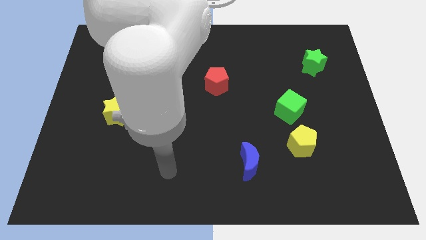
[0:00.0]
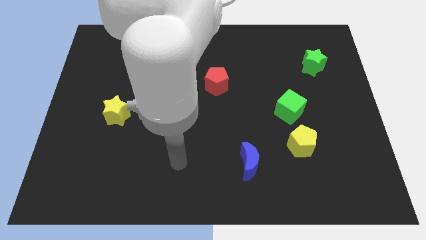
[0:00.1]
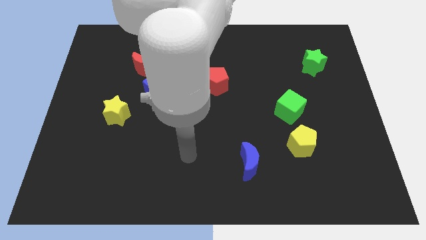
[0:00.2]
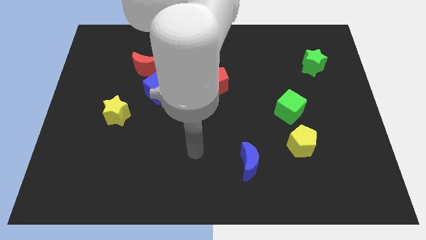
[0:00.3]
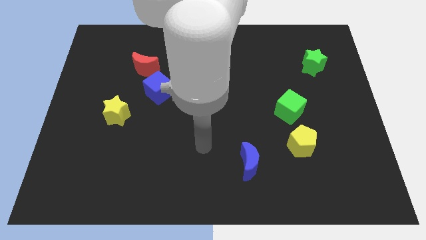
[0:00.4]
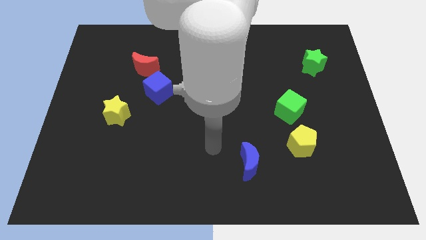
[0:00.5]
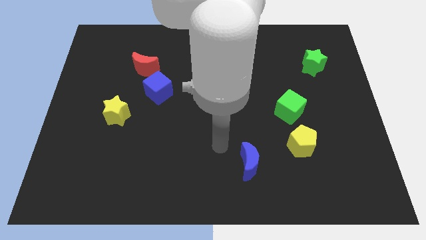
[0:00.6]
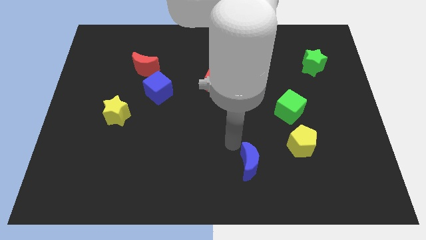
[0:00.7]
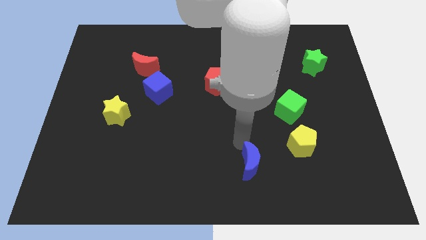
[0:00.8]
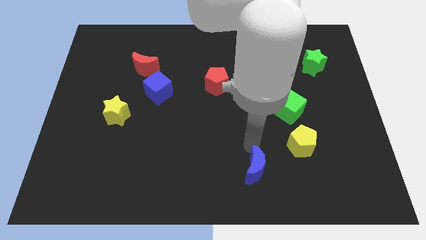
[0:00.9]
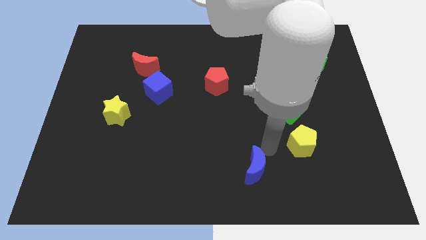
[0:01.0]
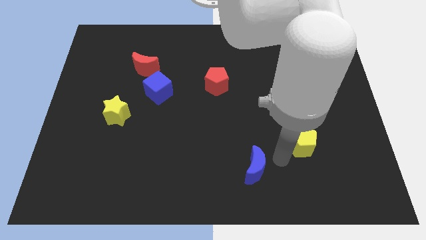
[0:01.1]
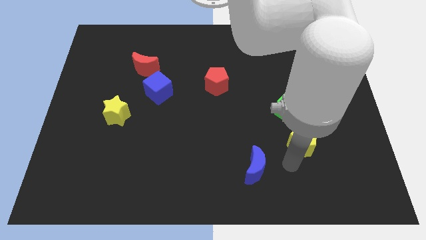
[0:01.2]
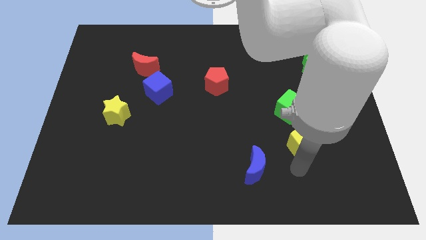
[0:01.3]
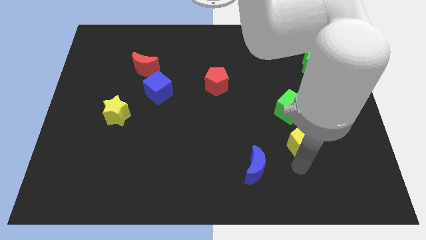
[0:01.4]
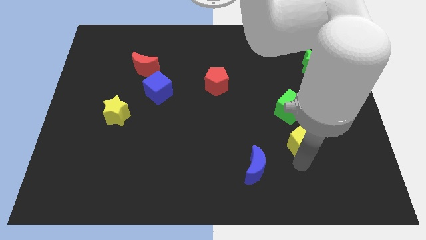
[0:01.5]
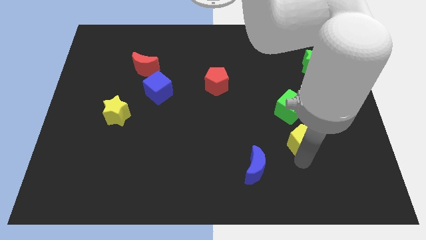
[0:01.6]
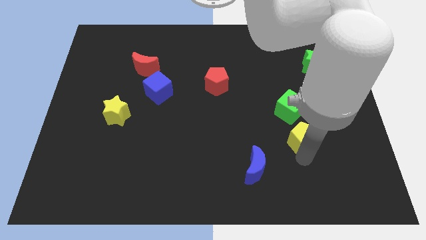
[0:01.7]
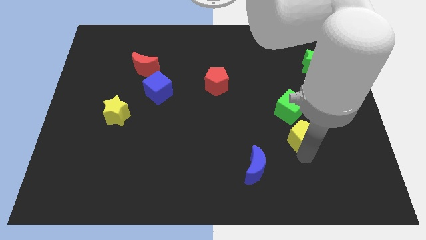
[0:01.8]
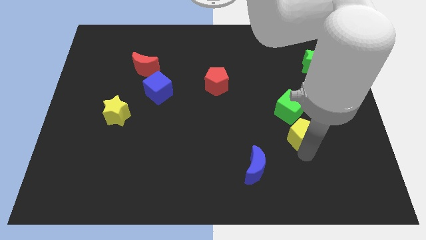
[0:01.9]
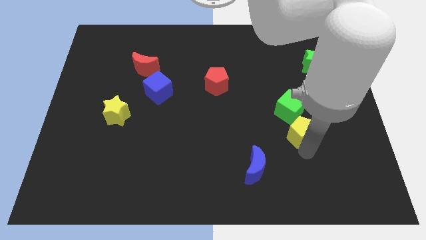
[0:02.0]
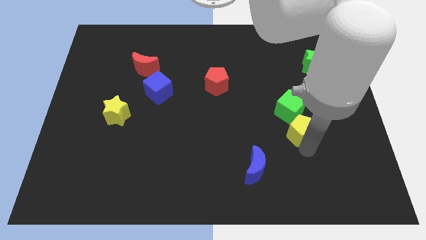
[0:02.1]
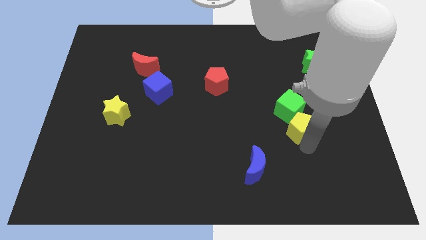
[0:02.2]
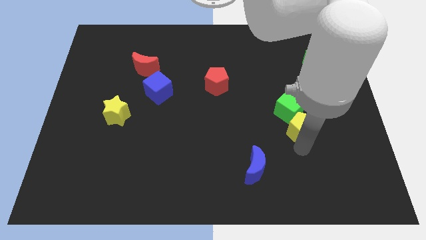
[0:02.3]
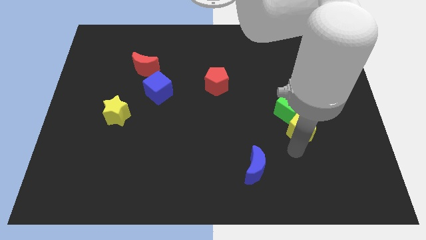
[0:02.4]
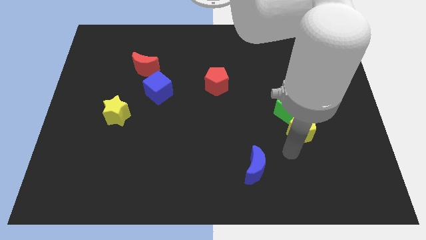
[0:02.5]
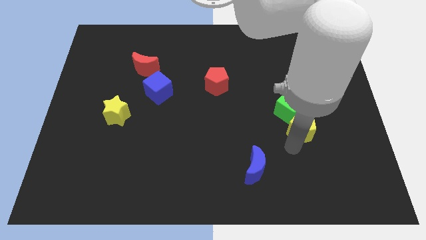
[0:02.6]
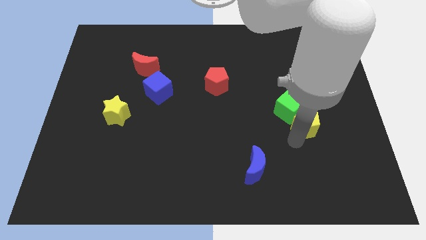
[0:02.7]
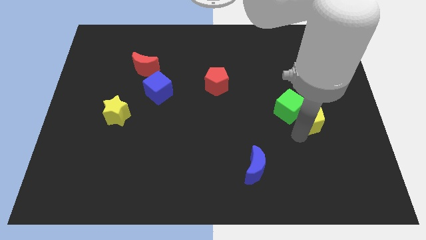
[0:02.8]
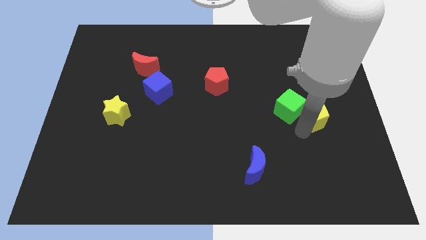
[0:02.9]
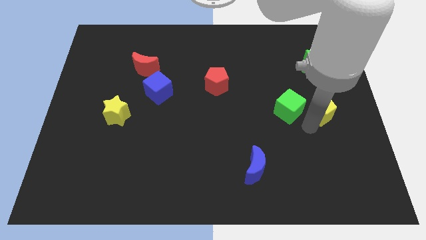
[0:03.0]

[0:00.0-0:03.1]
slide the yellow pentagon somewhat upwards

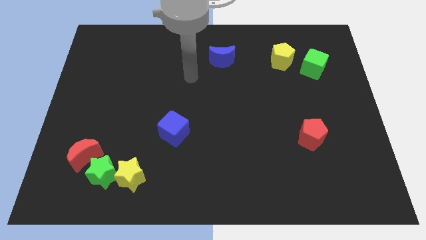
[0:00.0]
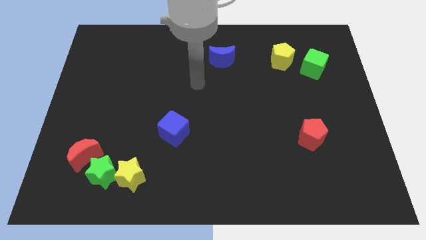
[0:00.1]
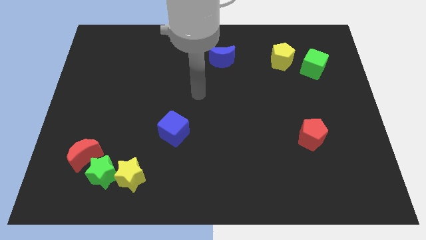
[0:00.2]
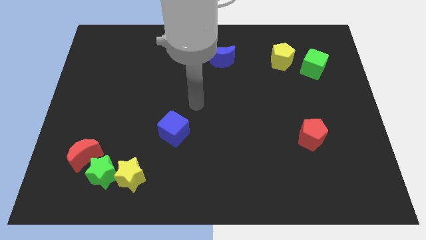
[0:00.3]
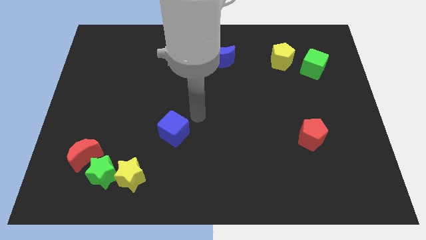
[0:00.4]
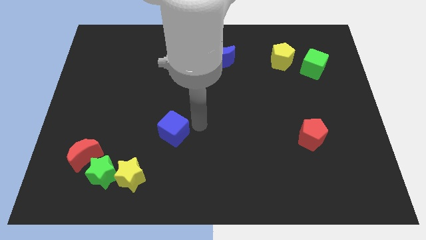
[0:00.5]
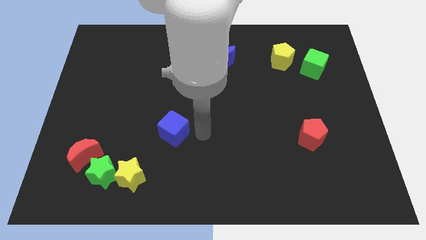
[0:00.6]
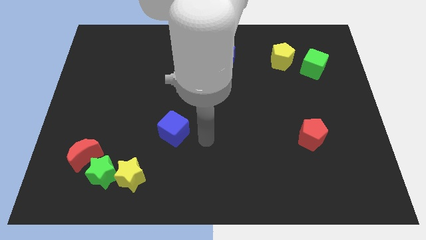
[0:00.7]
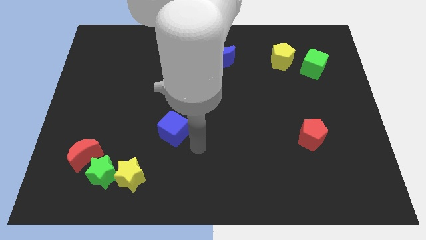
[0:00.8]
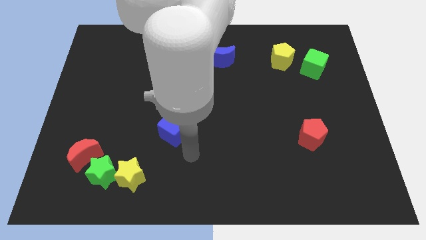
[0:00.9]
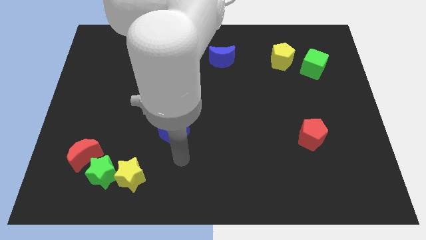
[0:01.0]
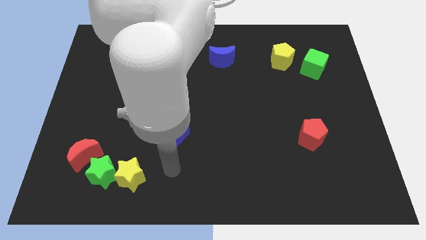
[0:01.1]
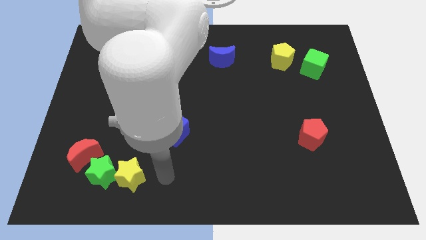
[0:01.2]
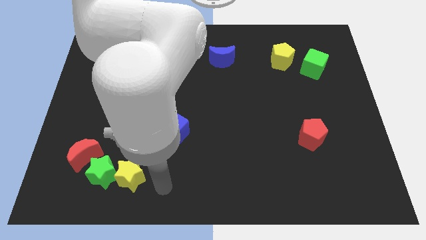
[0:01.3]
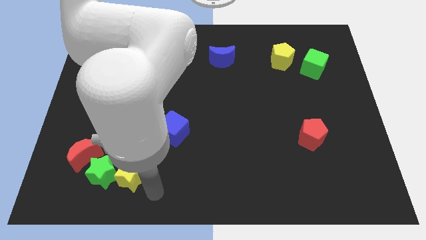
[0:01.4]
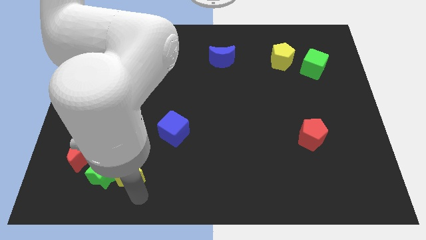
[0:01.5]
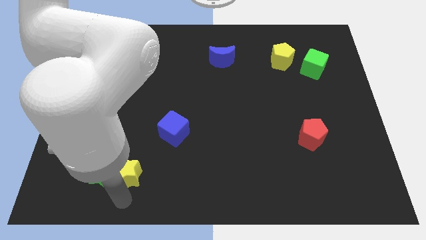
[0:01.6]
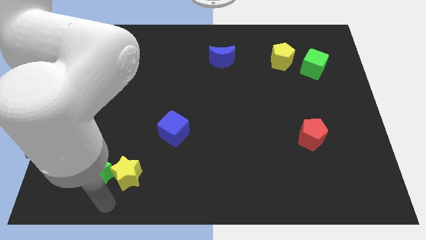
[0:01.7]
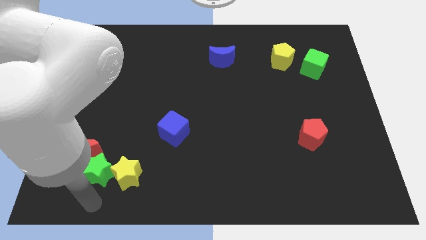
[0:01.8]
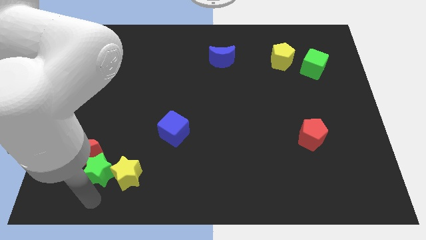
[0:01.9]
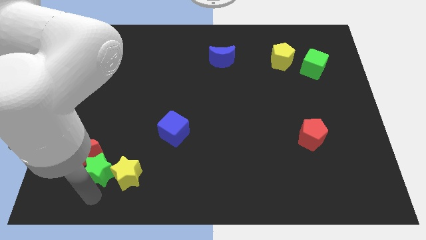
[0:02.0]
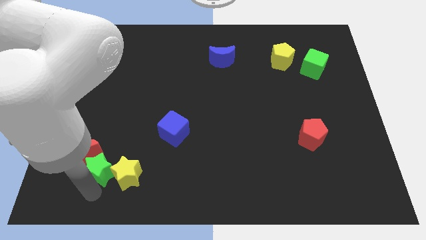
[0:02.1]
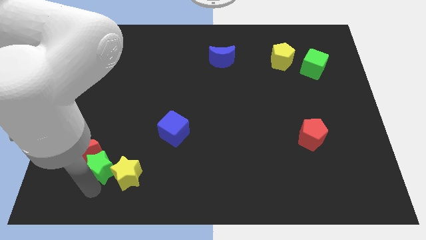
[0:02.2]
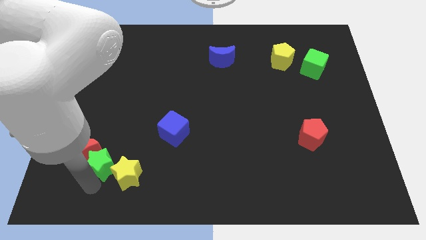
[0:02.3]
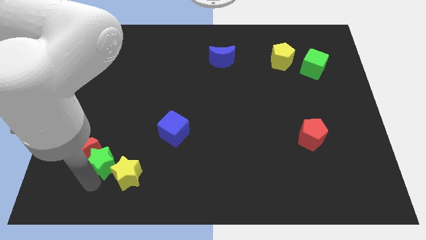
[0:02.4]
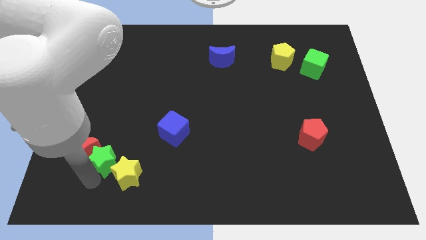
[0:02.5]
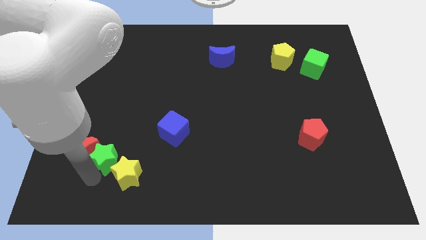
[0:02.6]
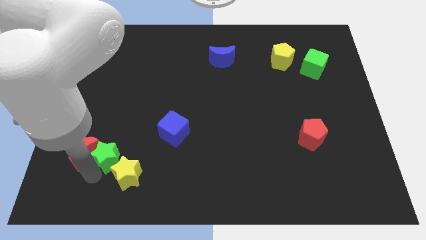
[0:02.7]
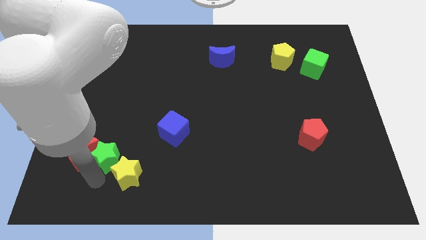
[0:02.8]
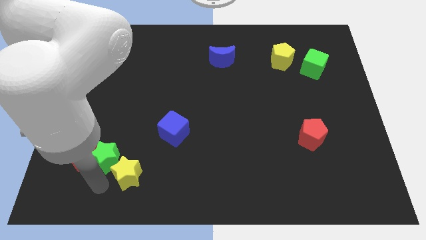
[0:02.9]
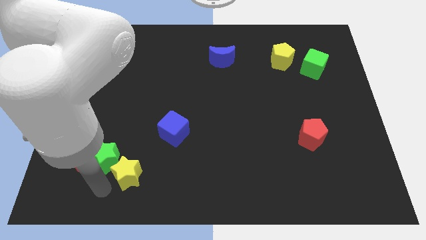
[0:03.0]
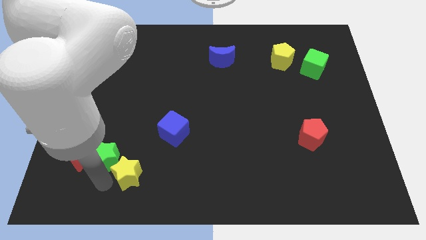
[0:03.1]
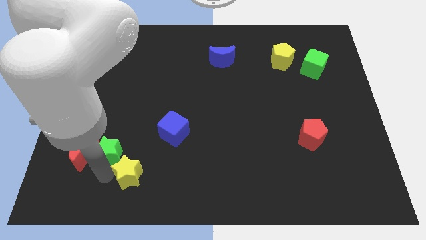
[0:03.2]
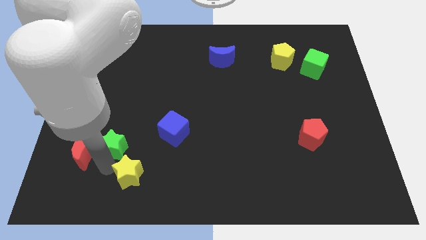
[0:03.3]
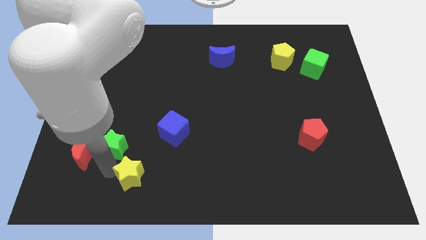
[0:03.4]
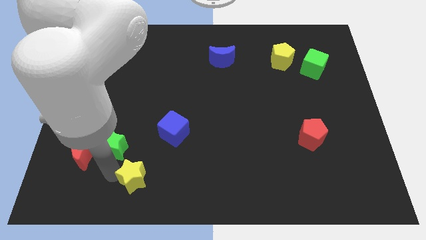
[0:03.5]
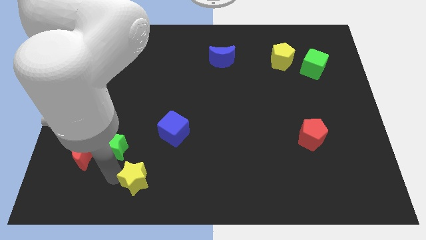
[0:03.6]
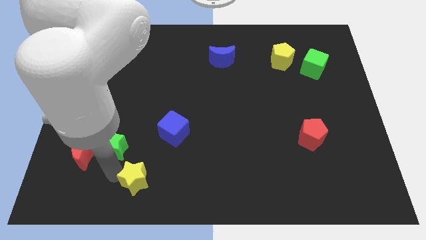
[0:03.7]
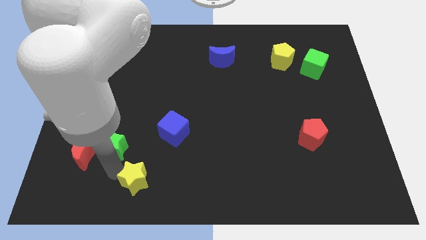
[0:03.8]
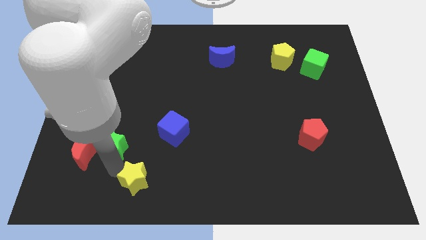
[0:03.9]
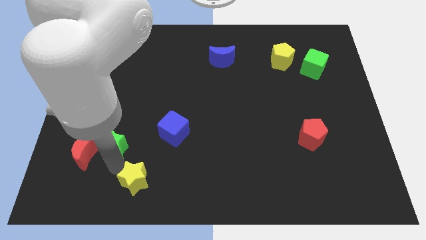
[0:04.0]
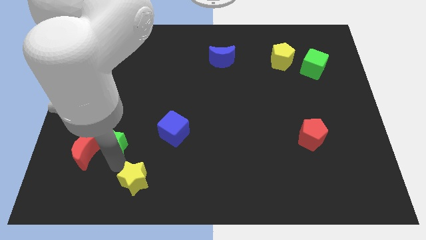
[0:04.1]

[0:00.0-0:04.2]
push the green star up somewhat

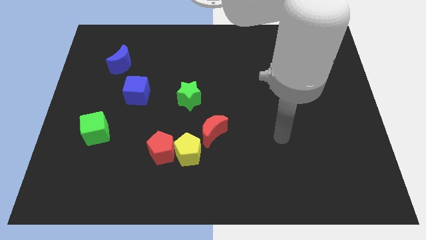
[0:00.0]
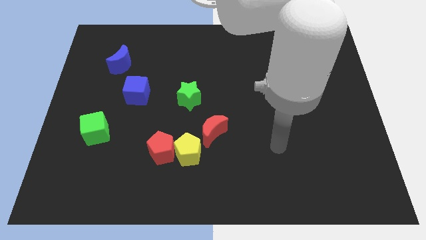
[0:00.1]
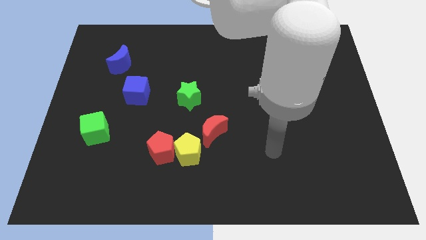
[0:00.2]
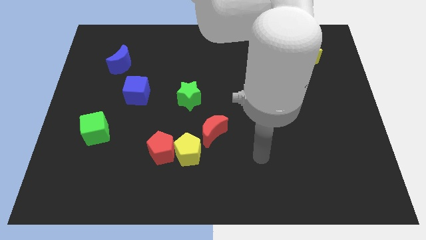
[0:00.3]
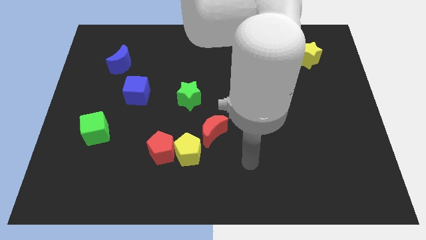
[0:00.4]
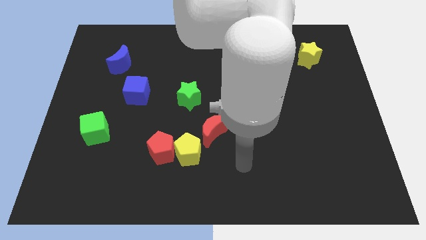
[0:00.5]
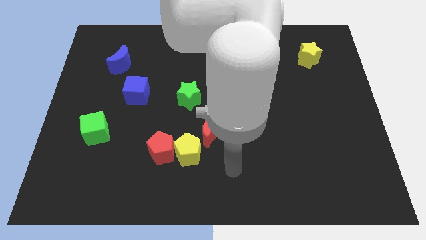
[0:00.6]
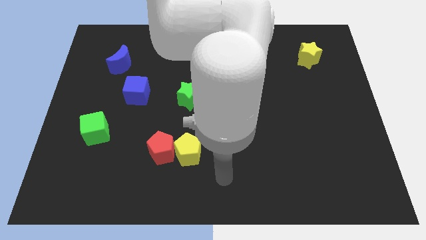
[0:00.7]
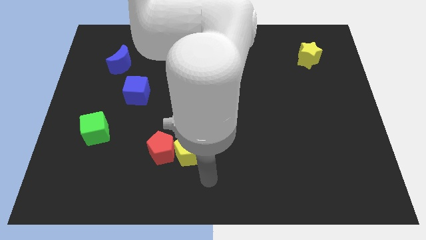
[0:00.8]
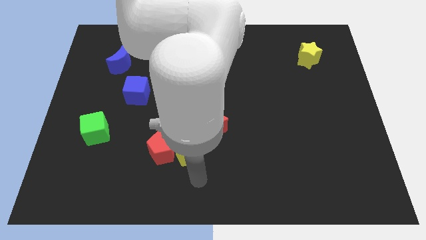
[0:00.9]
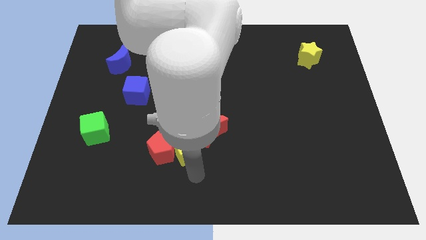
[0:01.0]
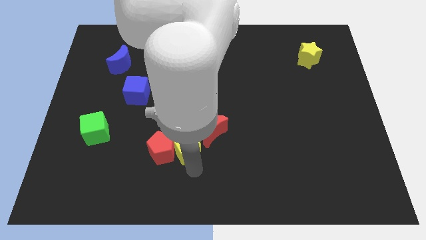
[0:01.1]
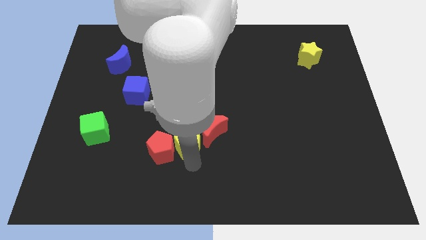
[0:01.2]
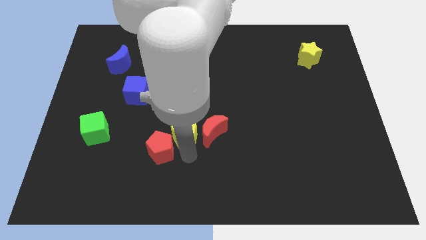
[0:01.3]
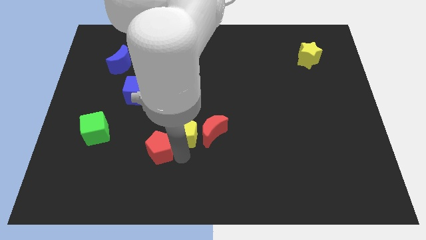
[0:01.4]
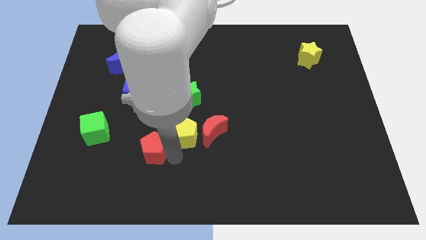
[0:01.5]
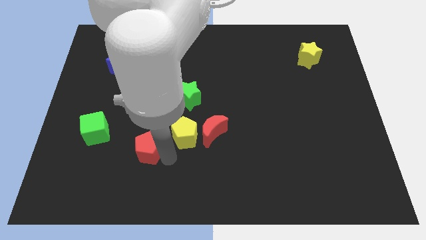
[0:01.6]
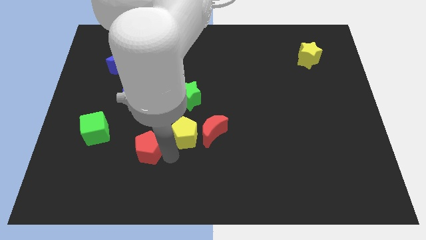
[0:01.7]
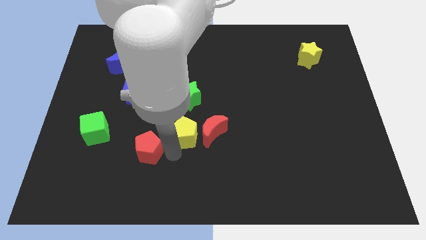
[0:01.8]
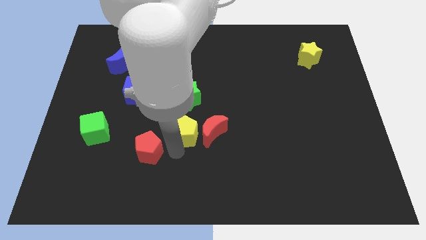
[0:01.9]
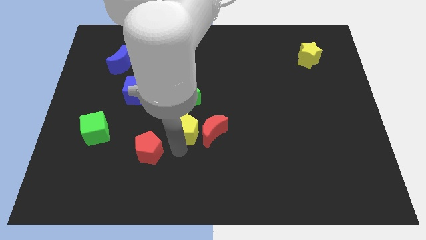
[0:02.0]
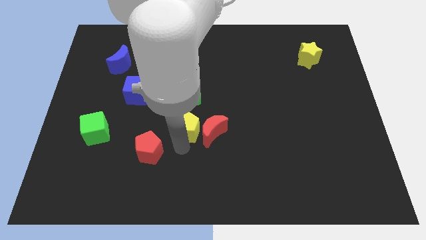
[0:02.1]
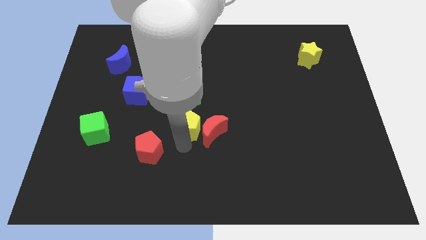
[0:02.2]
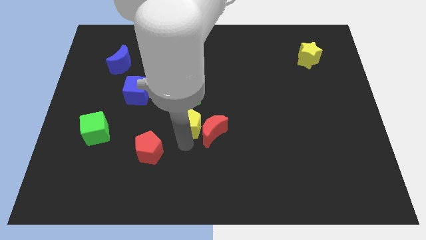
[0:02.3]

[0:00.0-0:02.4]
push the yellow pentagon slightly upwards
